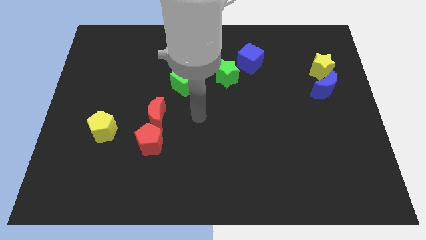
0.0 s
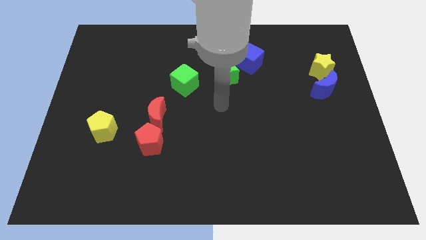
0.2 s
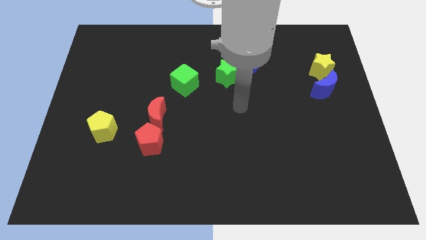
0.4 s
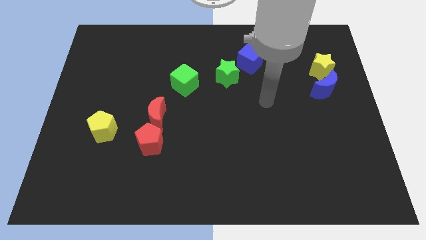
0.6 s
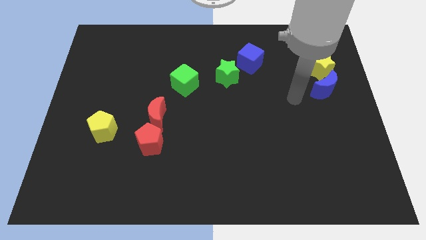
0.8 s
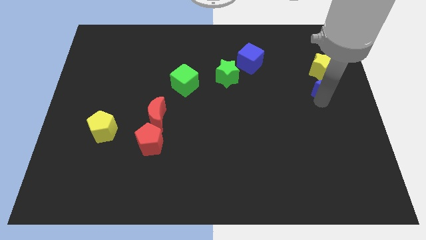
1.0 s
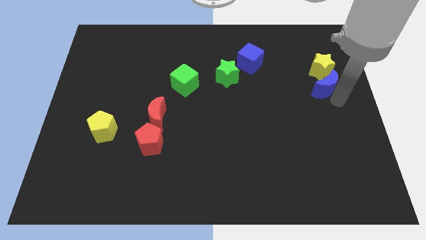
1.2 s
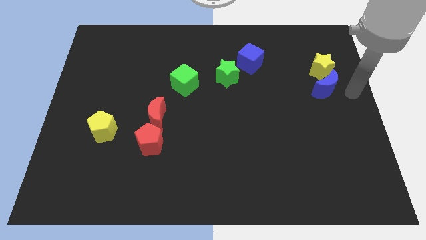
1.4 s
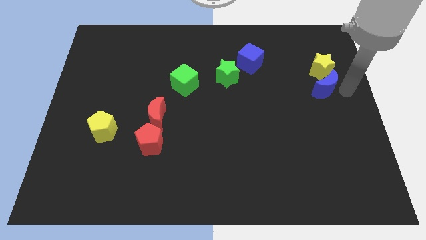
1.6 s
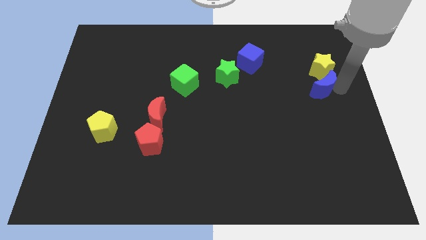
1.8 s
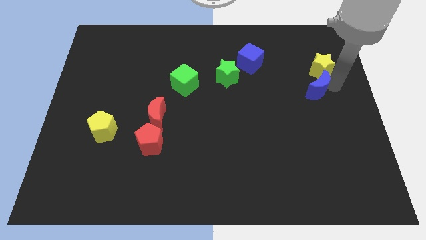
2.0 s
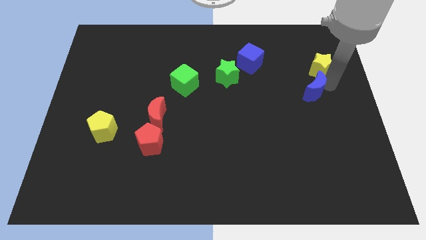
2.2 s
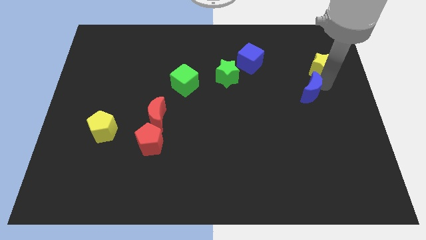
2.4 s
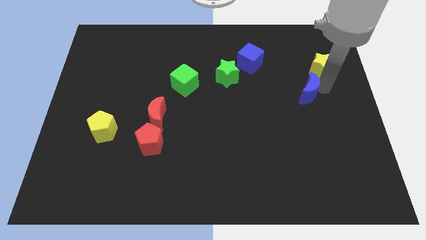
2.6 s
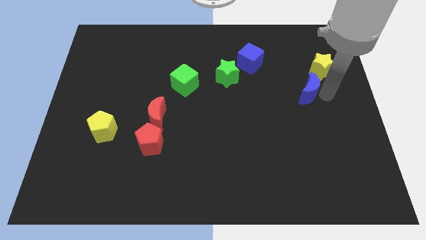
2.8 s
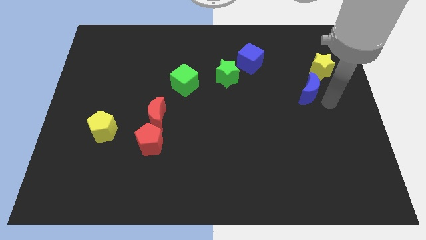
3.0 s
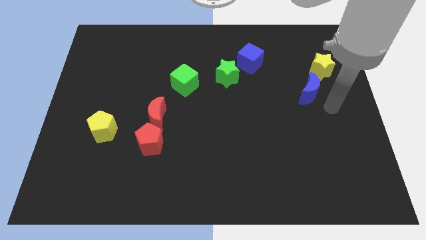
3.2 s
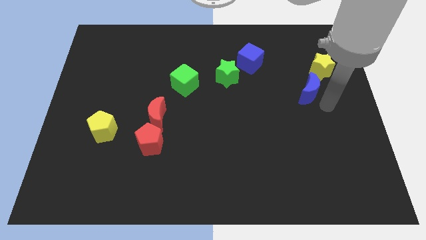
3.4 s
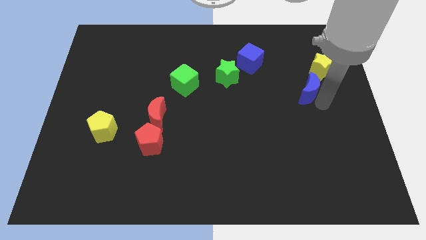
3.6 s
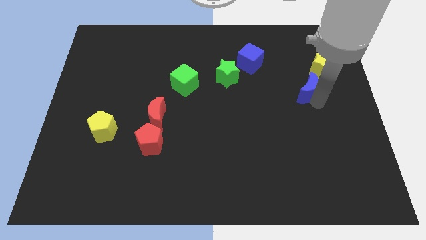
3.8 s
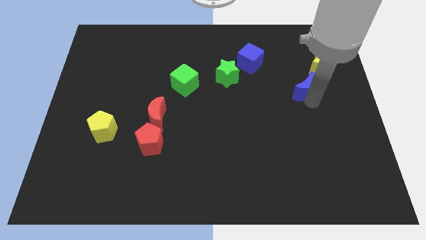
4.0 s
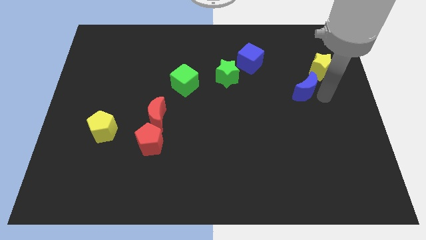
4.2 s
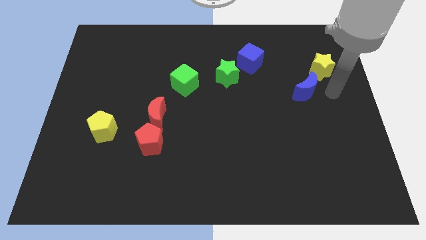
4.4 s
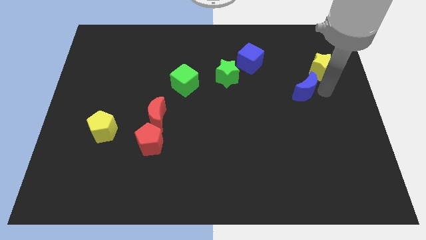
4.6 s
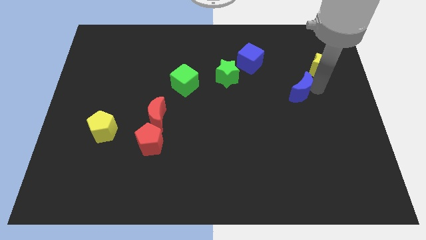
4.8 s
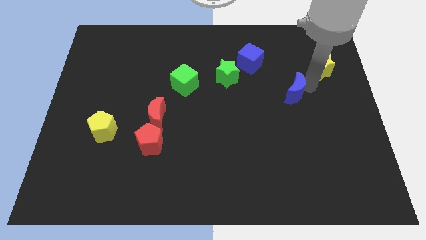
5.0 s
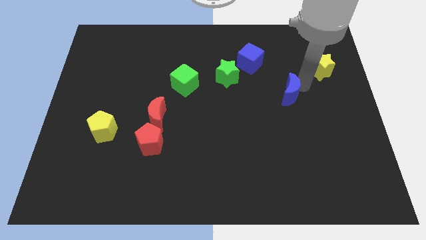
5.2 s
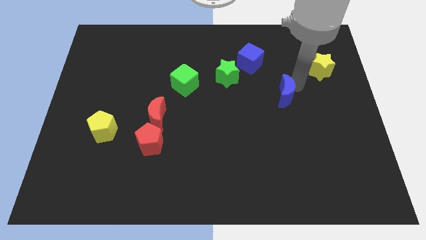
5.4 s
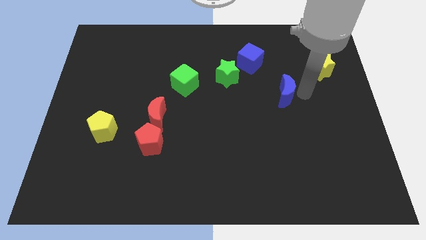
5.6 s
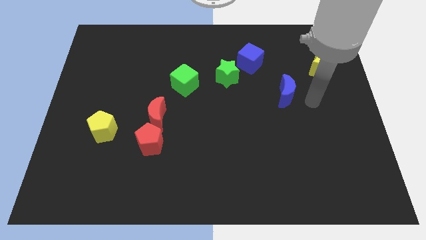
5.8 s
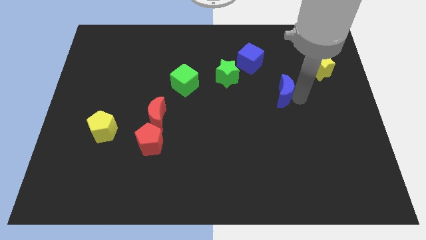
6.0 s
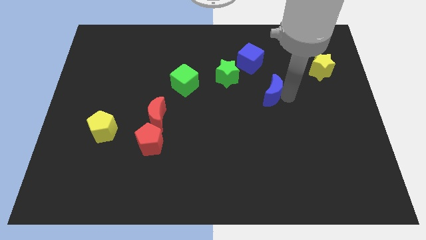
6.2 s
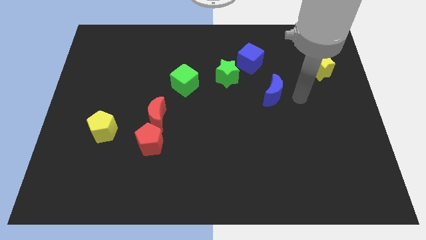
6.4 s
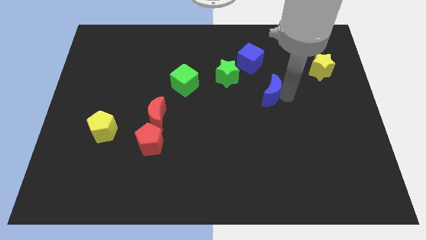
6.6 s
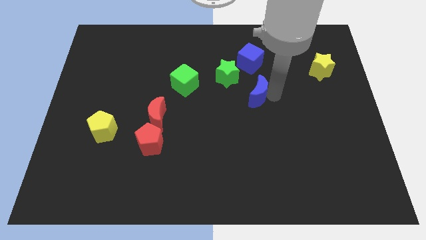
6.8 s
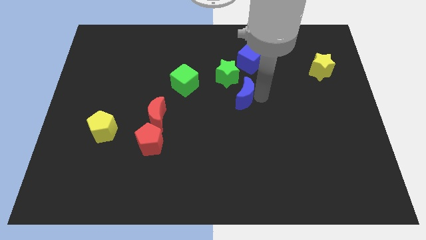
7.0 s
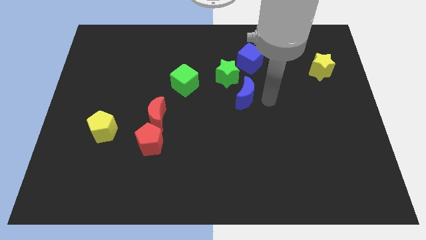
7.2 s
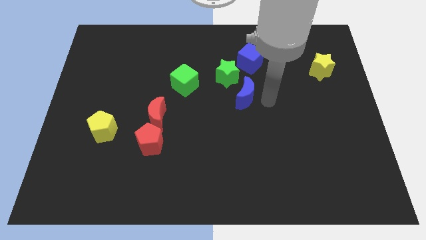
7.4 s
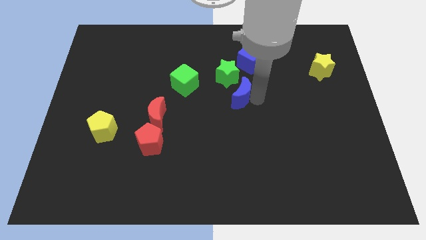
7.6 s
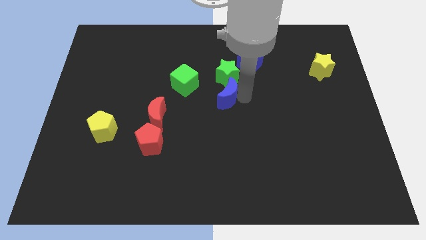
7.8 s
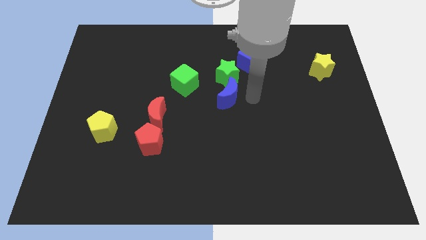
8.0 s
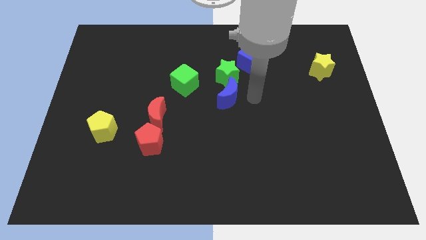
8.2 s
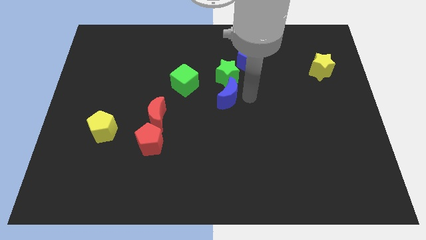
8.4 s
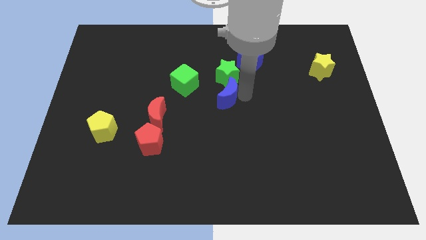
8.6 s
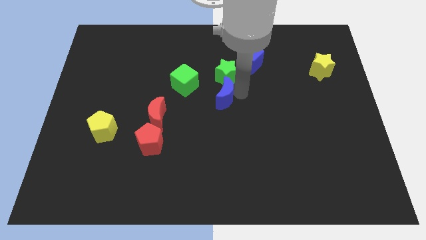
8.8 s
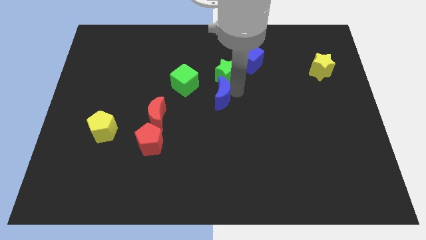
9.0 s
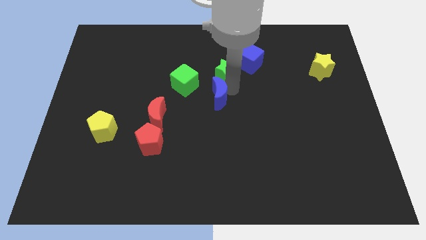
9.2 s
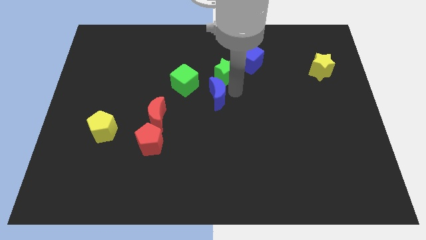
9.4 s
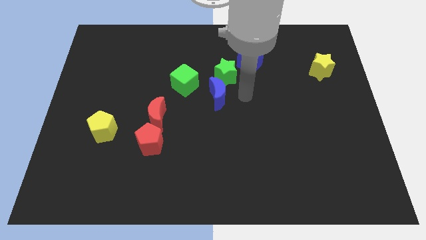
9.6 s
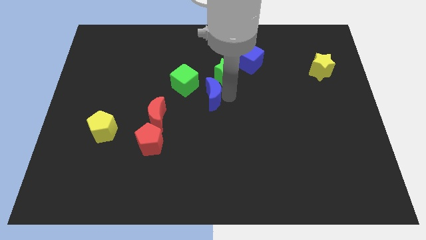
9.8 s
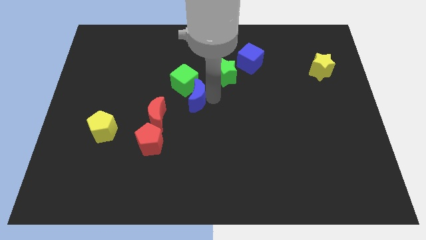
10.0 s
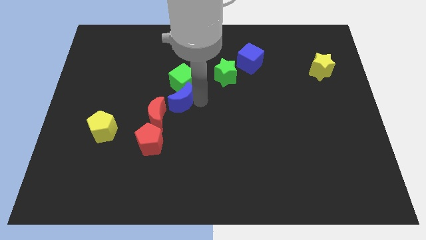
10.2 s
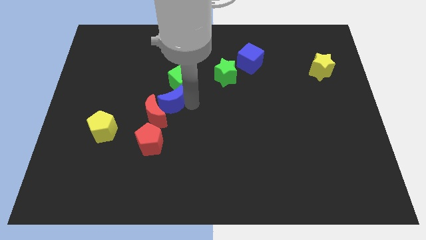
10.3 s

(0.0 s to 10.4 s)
put the blue moon to the top of the red moon

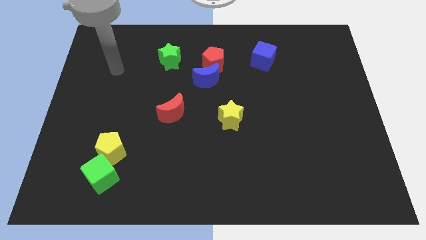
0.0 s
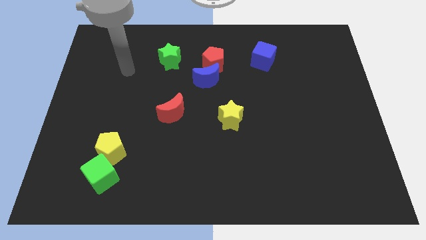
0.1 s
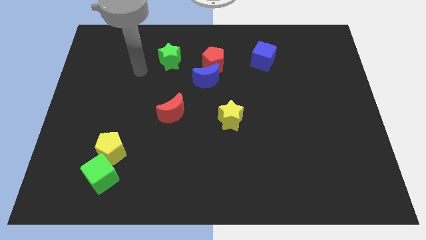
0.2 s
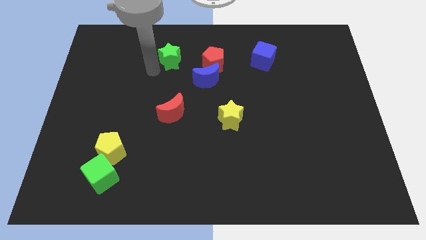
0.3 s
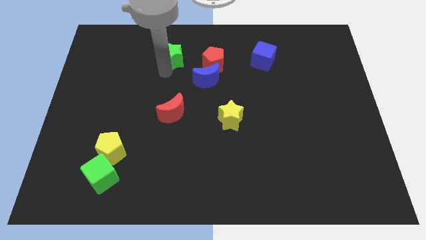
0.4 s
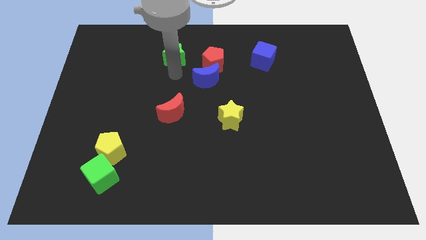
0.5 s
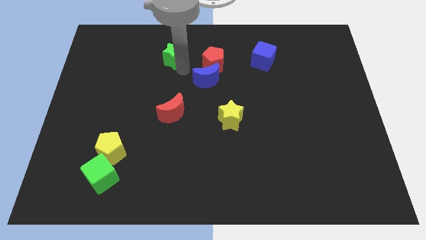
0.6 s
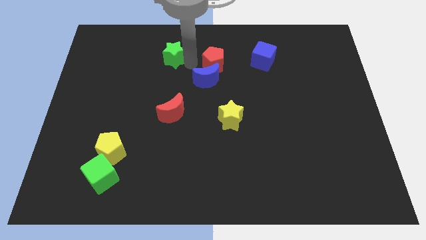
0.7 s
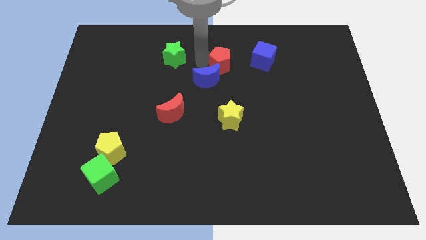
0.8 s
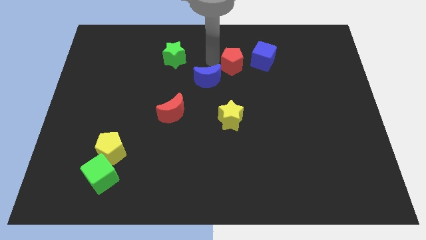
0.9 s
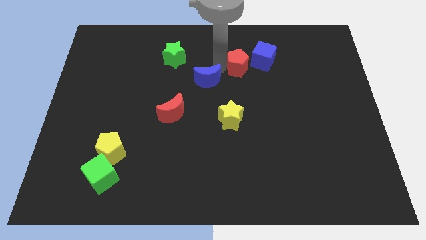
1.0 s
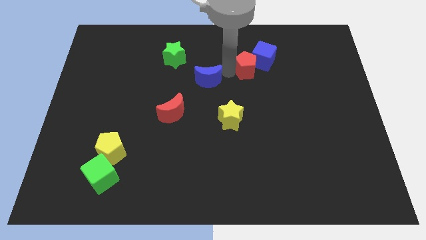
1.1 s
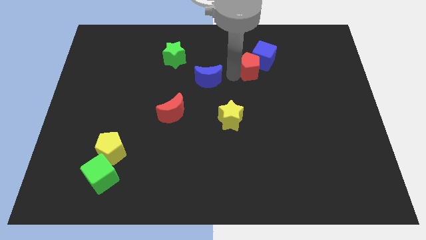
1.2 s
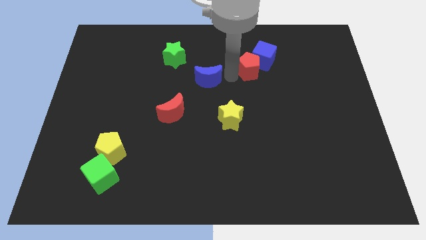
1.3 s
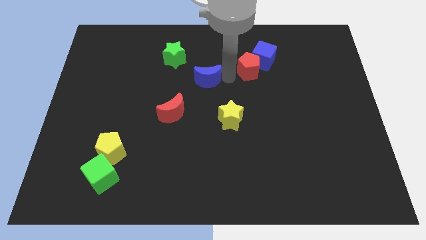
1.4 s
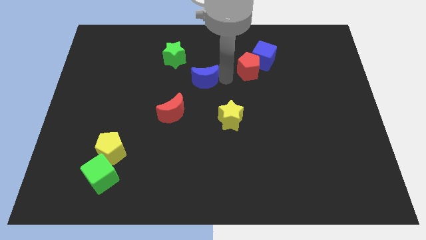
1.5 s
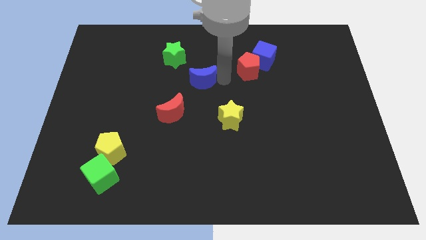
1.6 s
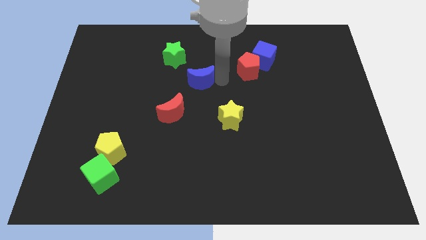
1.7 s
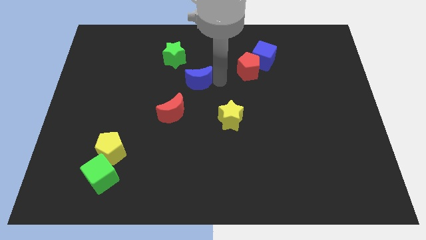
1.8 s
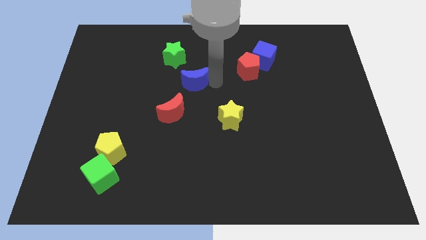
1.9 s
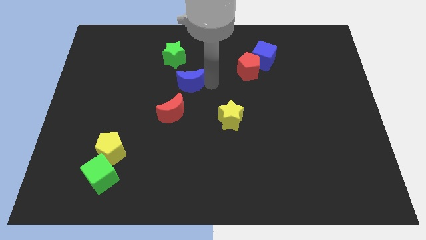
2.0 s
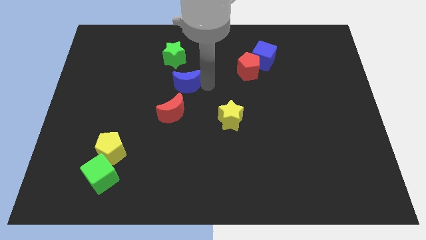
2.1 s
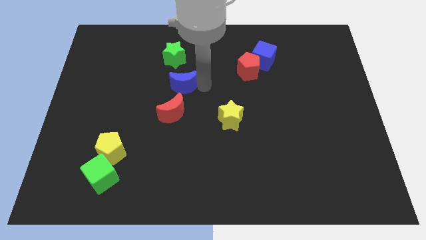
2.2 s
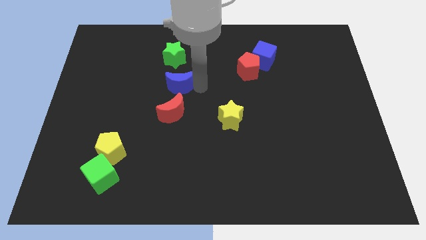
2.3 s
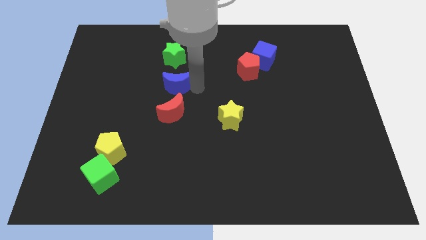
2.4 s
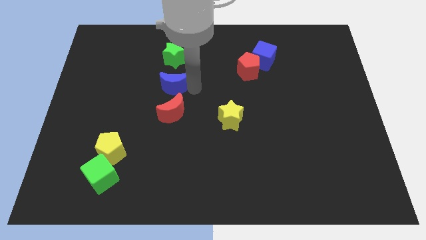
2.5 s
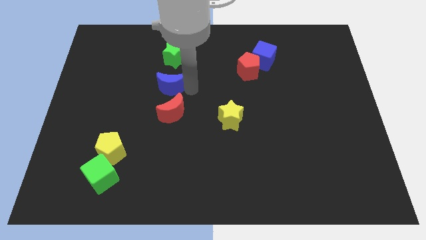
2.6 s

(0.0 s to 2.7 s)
move the blue moon to the top left side of the red moon
